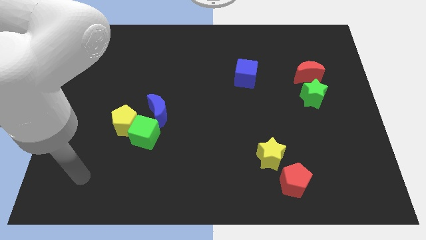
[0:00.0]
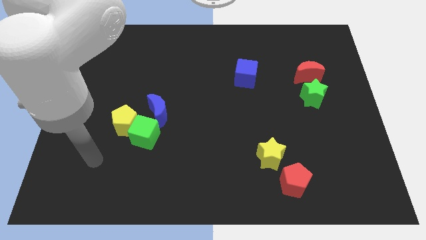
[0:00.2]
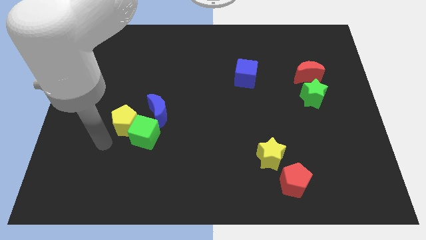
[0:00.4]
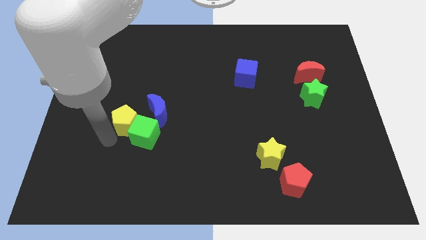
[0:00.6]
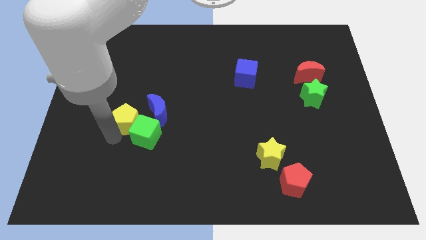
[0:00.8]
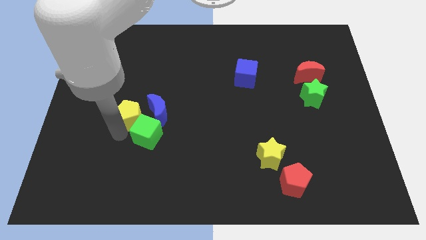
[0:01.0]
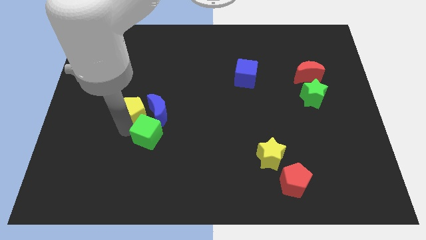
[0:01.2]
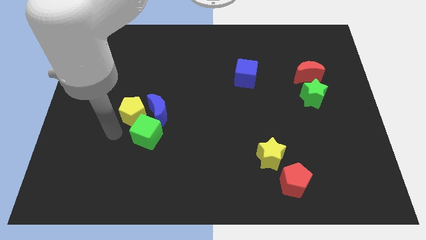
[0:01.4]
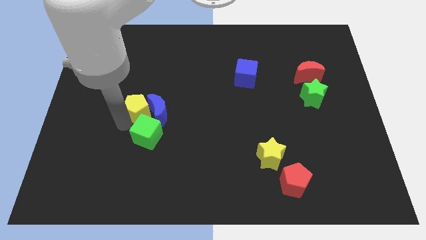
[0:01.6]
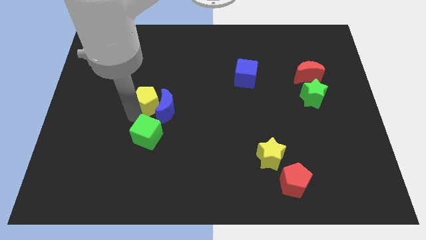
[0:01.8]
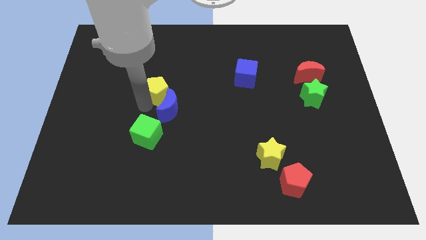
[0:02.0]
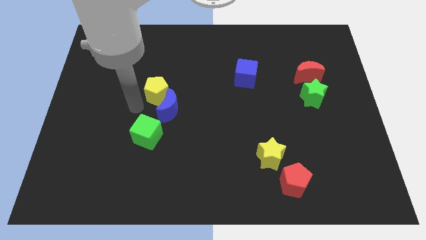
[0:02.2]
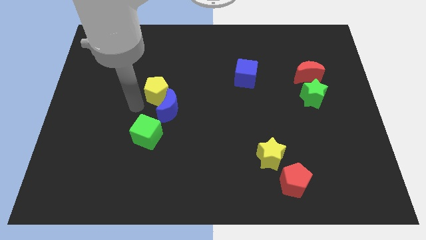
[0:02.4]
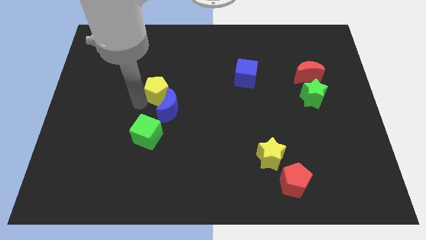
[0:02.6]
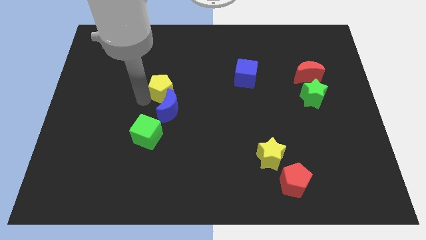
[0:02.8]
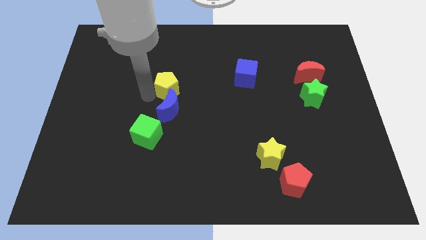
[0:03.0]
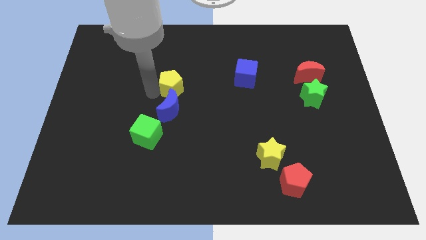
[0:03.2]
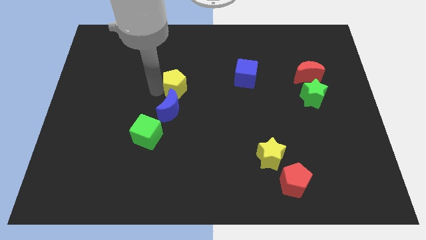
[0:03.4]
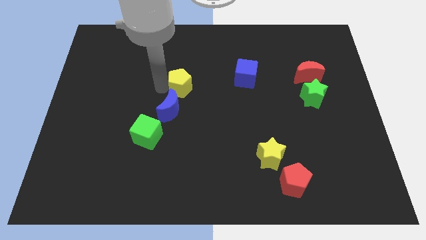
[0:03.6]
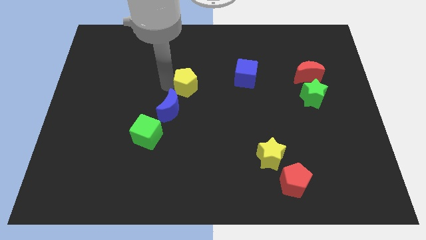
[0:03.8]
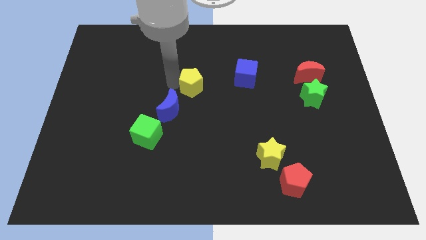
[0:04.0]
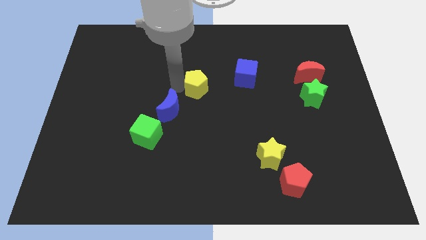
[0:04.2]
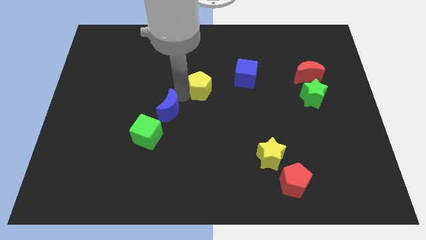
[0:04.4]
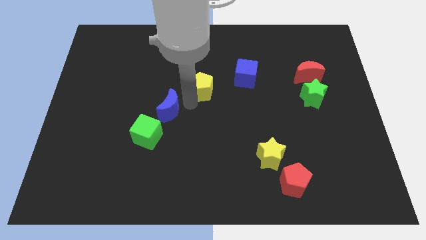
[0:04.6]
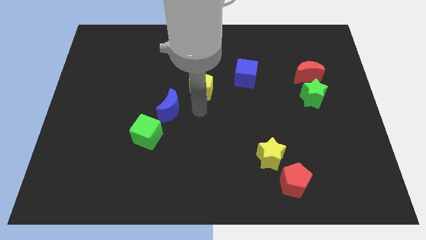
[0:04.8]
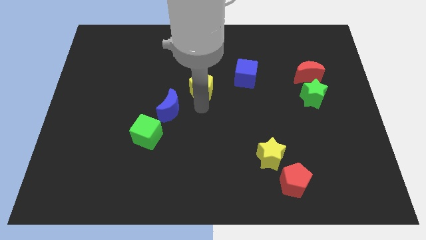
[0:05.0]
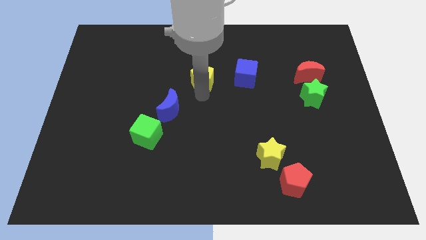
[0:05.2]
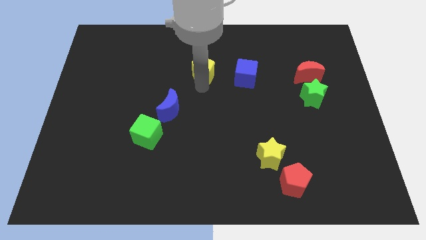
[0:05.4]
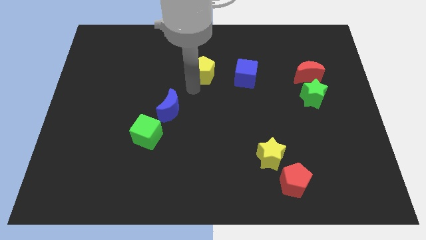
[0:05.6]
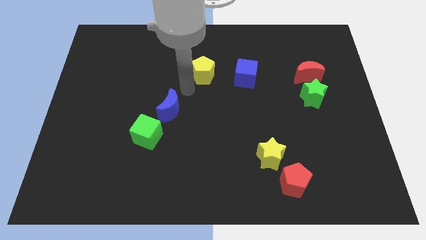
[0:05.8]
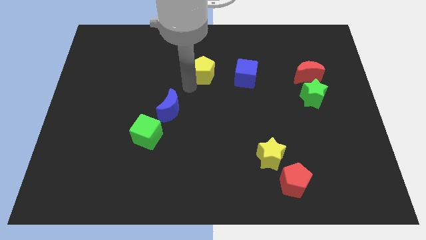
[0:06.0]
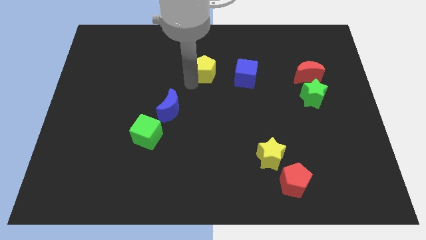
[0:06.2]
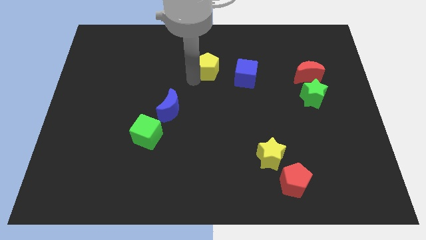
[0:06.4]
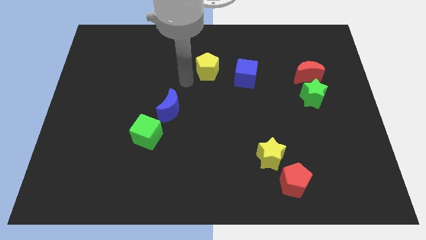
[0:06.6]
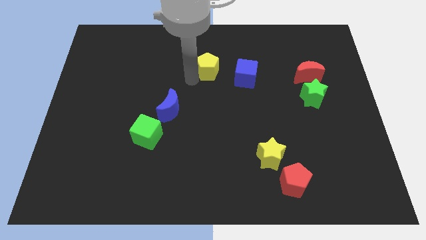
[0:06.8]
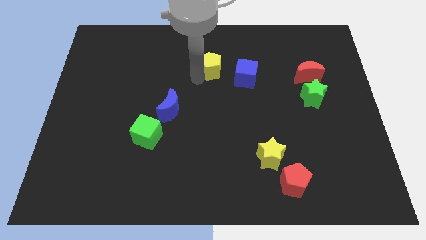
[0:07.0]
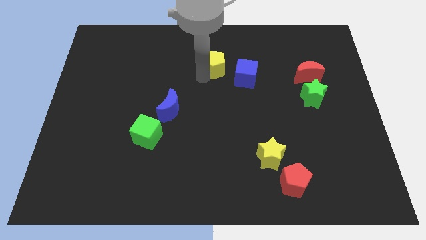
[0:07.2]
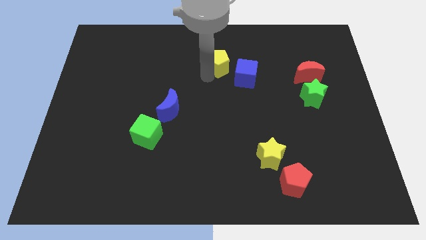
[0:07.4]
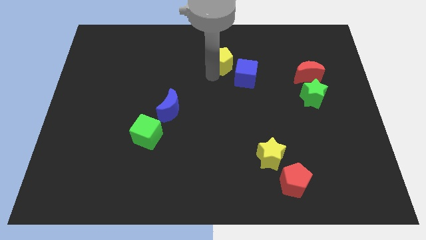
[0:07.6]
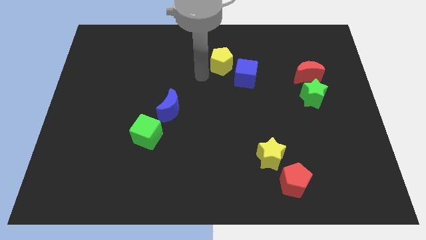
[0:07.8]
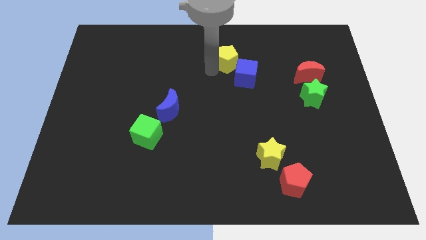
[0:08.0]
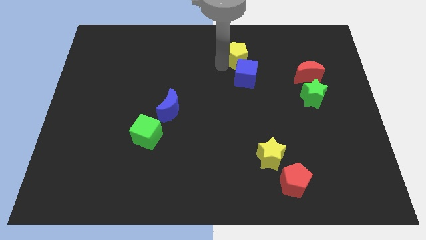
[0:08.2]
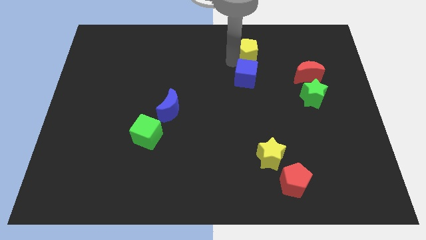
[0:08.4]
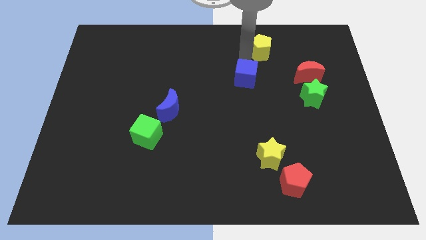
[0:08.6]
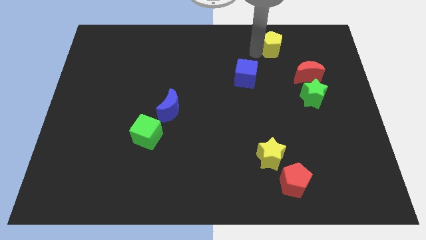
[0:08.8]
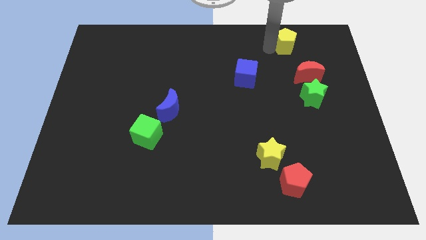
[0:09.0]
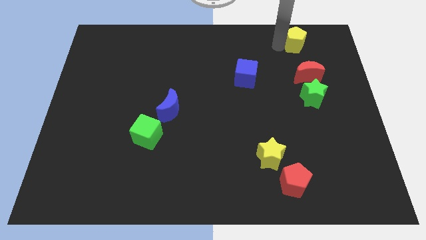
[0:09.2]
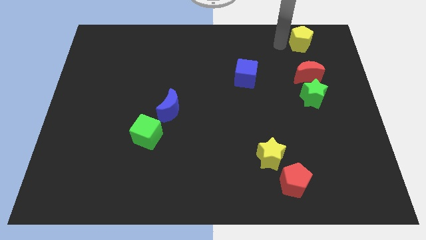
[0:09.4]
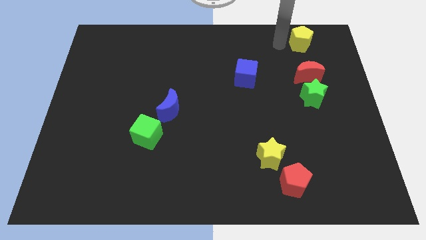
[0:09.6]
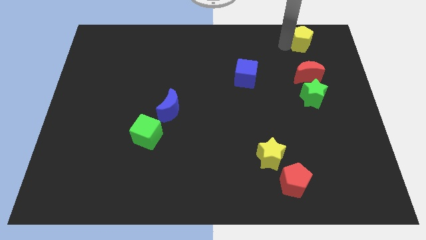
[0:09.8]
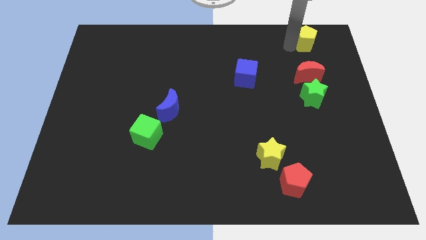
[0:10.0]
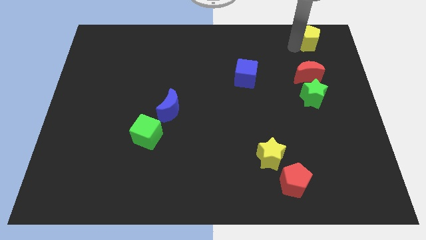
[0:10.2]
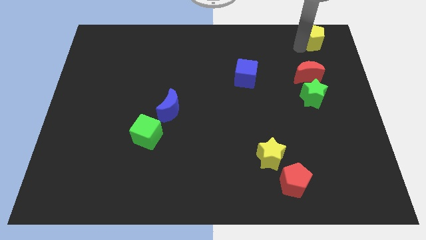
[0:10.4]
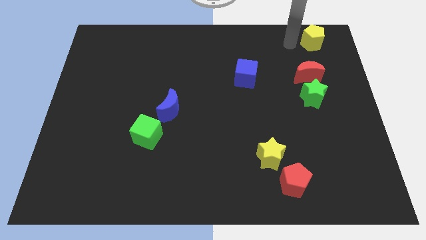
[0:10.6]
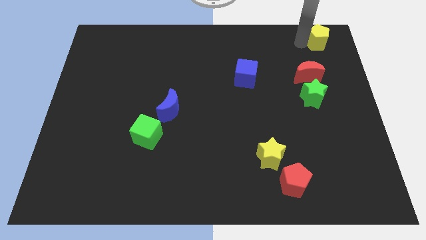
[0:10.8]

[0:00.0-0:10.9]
slide the yellow pentagon to the top right corner

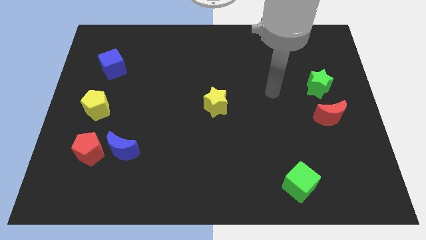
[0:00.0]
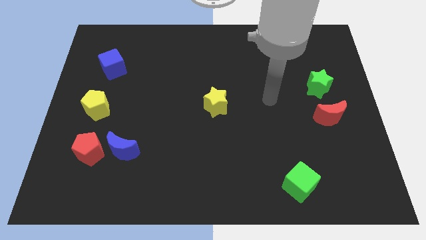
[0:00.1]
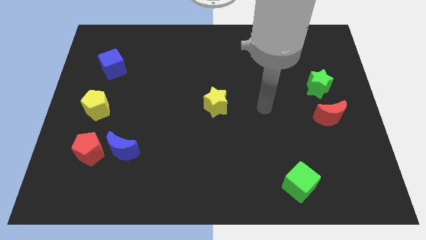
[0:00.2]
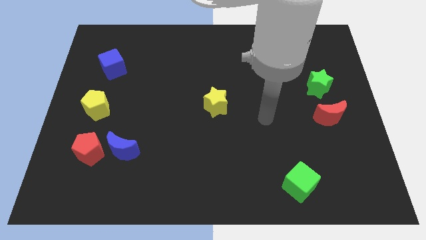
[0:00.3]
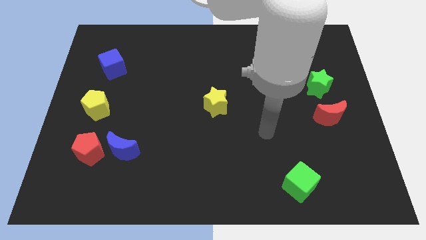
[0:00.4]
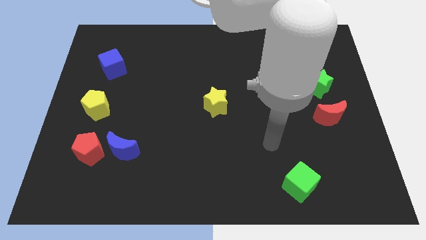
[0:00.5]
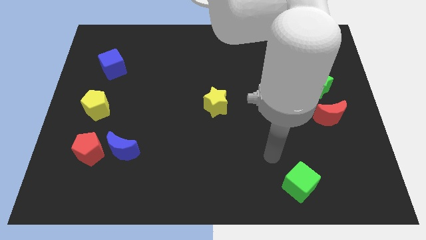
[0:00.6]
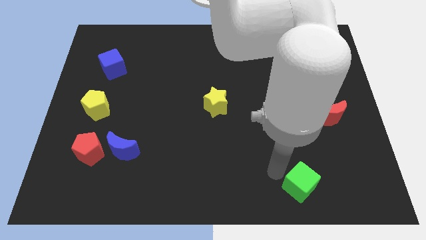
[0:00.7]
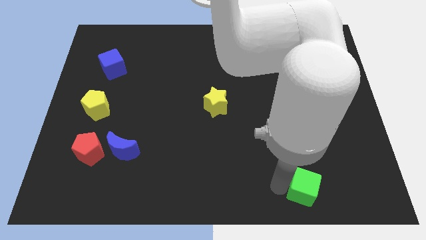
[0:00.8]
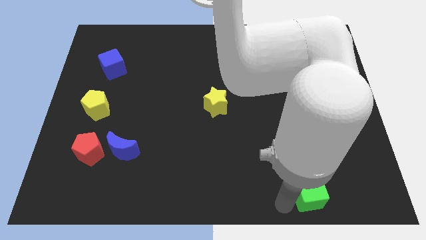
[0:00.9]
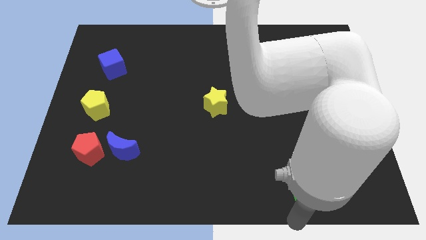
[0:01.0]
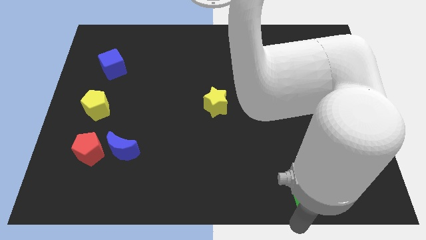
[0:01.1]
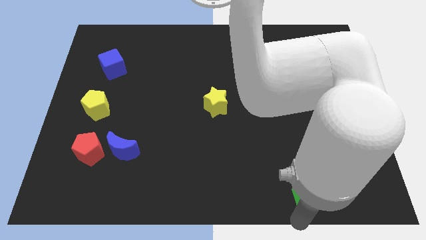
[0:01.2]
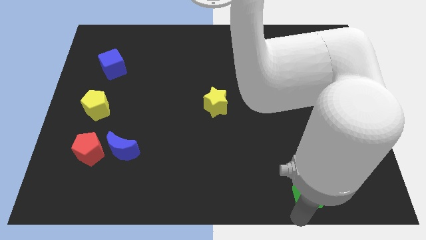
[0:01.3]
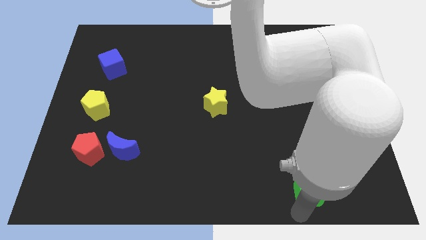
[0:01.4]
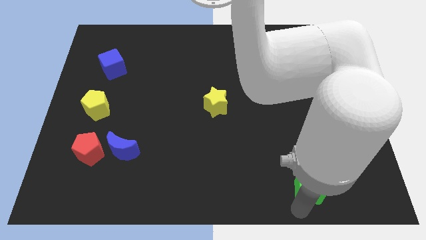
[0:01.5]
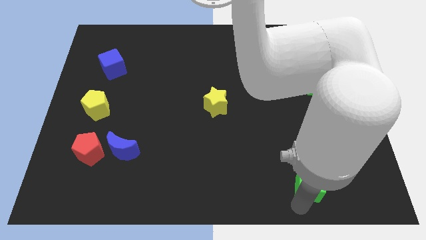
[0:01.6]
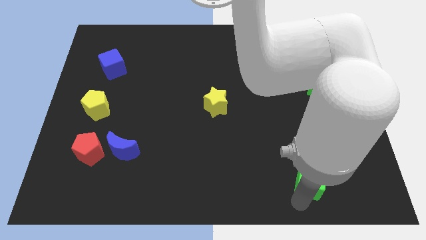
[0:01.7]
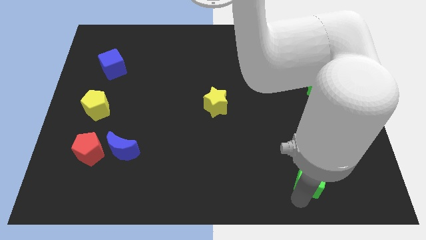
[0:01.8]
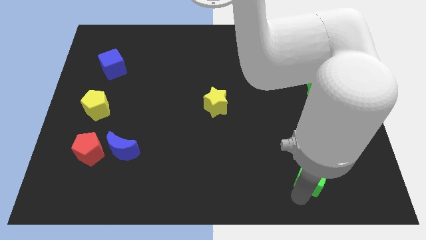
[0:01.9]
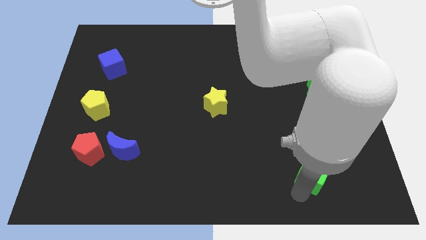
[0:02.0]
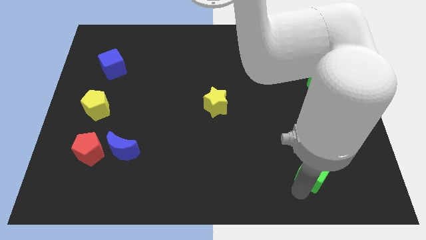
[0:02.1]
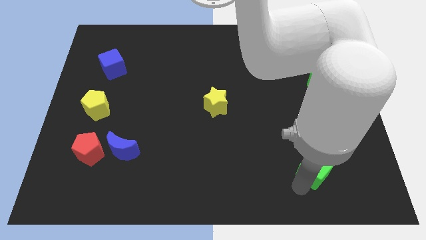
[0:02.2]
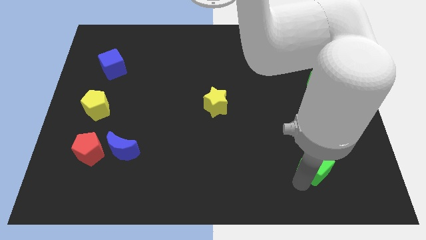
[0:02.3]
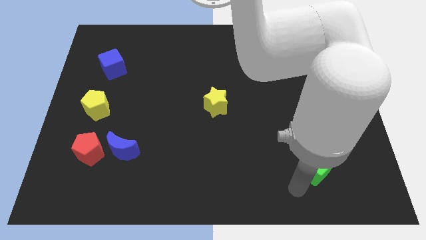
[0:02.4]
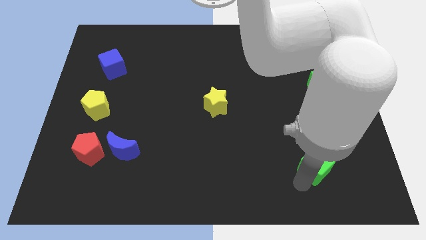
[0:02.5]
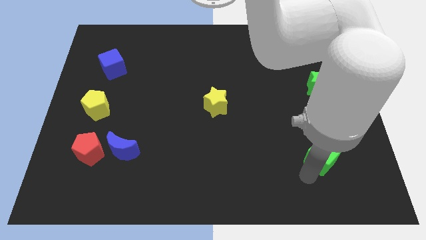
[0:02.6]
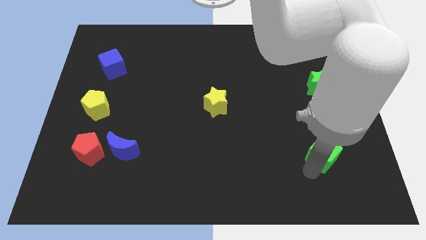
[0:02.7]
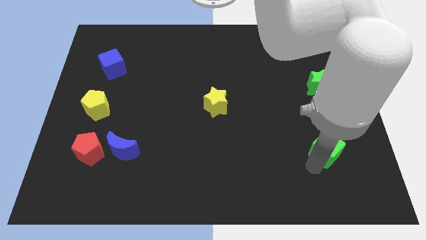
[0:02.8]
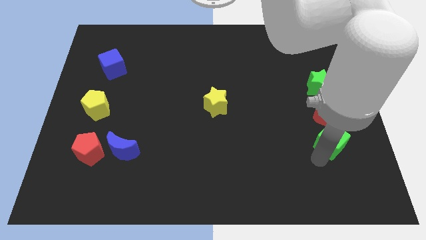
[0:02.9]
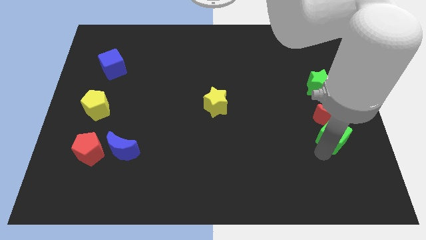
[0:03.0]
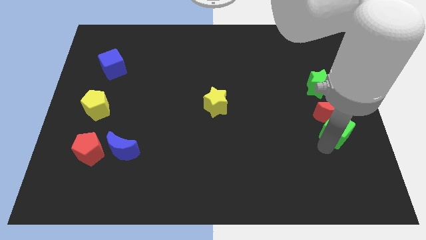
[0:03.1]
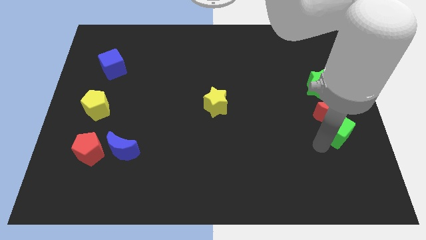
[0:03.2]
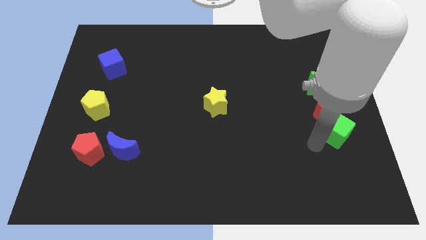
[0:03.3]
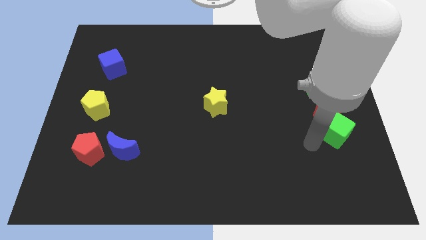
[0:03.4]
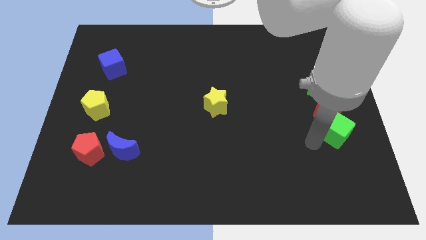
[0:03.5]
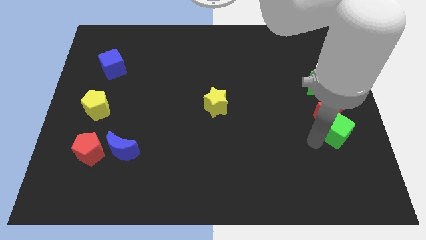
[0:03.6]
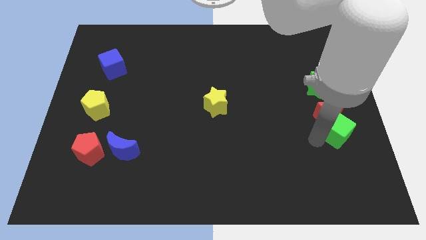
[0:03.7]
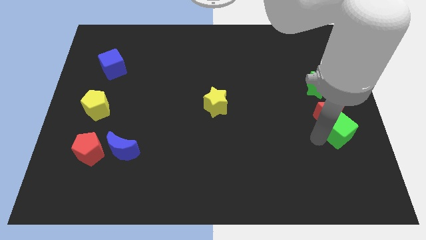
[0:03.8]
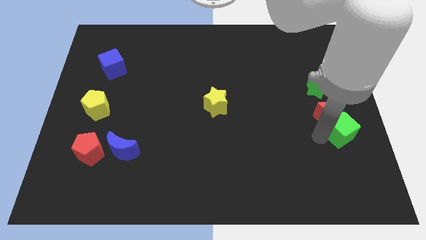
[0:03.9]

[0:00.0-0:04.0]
slide the green cube to the right side of the board
